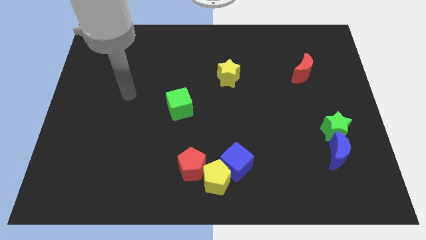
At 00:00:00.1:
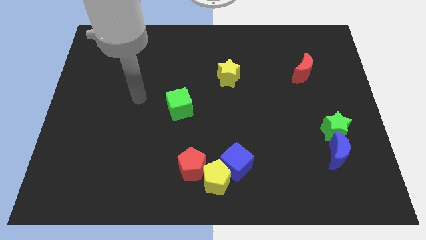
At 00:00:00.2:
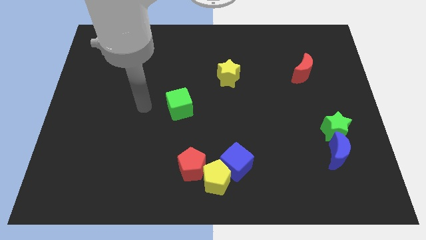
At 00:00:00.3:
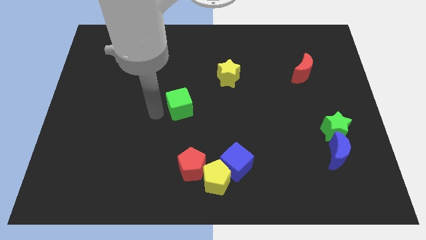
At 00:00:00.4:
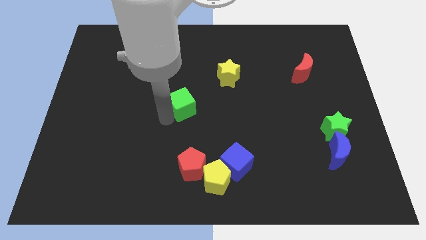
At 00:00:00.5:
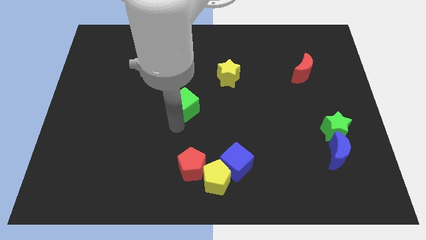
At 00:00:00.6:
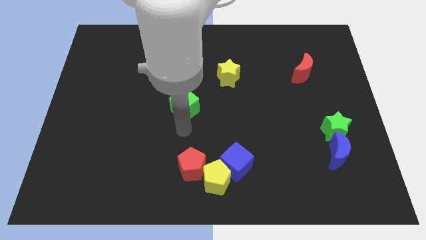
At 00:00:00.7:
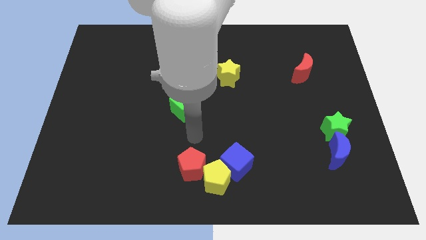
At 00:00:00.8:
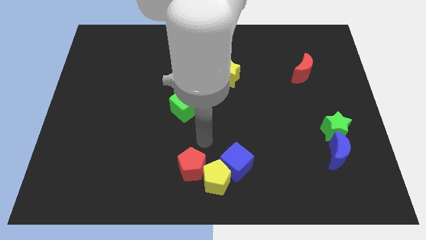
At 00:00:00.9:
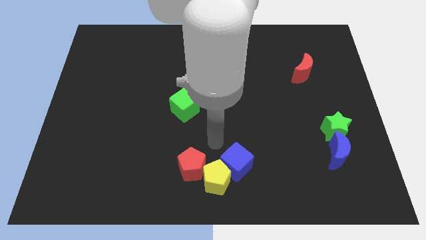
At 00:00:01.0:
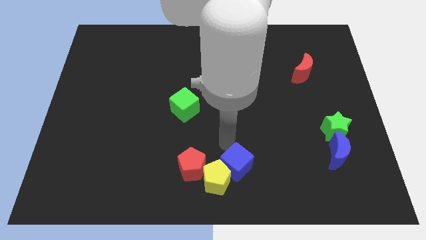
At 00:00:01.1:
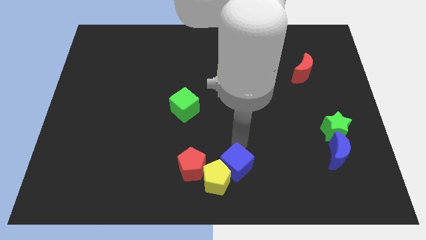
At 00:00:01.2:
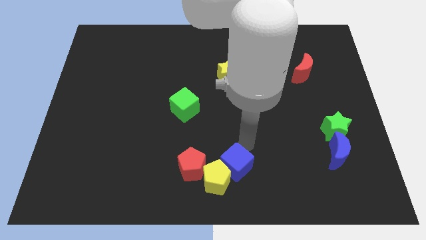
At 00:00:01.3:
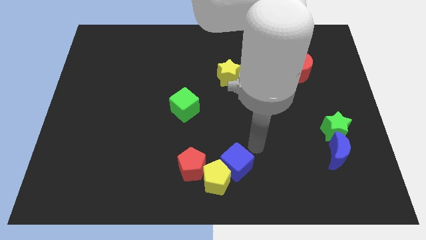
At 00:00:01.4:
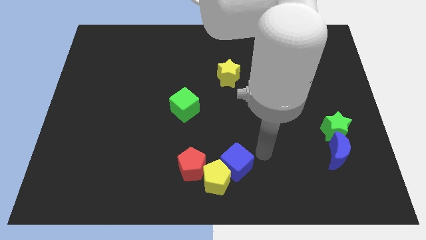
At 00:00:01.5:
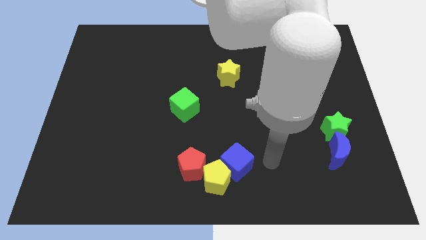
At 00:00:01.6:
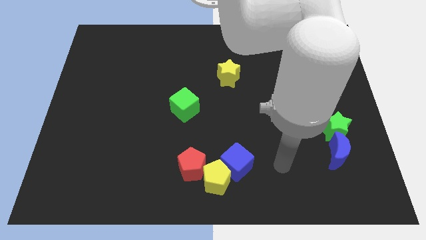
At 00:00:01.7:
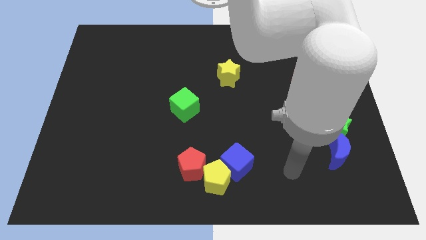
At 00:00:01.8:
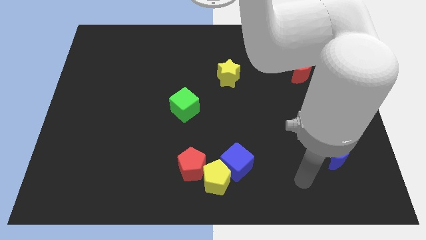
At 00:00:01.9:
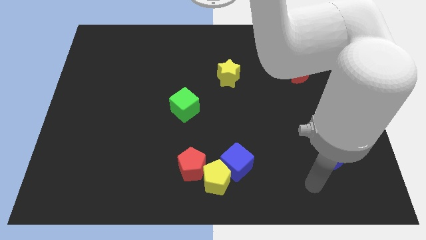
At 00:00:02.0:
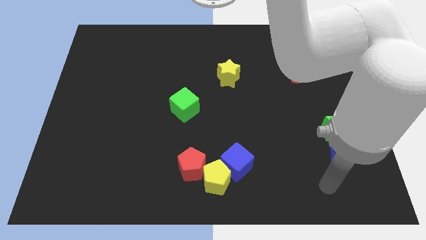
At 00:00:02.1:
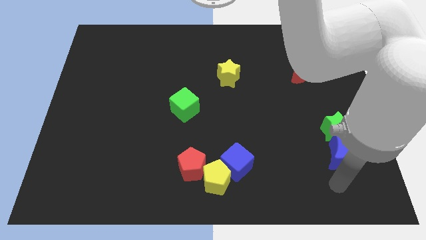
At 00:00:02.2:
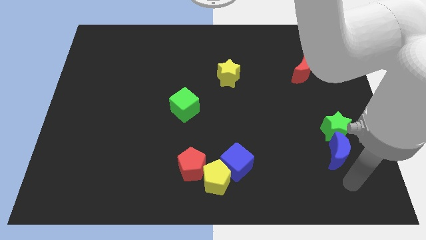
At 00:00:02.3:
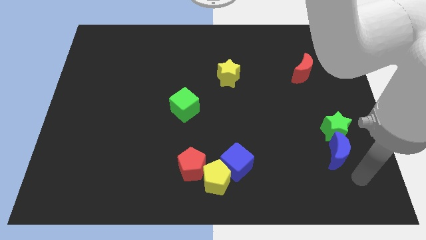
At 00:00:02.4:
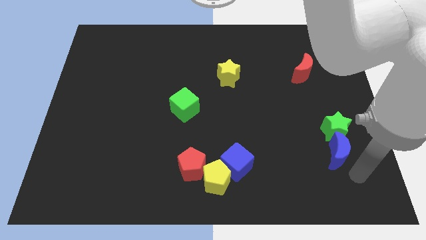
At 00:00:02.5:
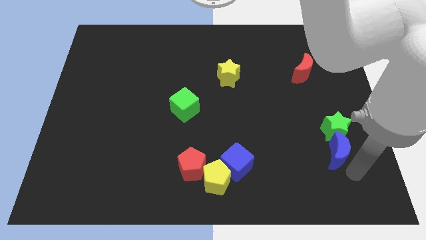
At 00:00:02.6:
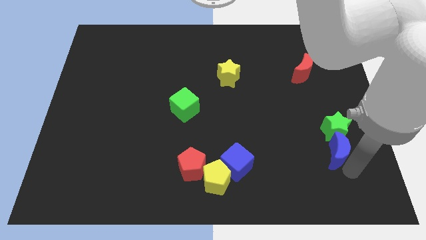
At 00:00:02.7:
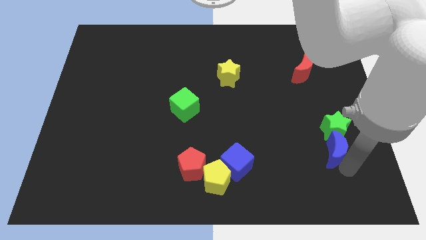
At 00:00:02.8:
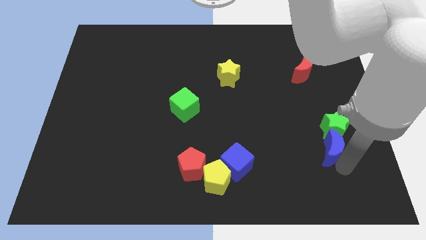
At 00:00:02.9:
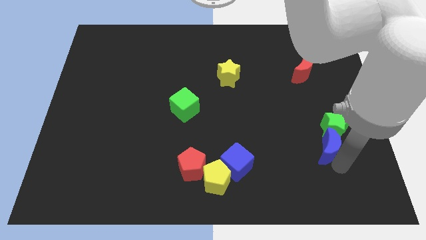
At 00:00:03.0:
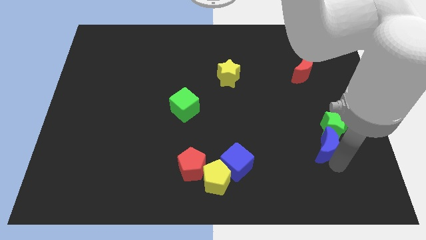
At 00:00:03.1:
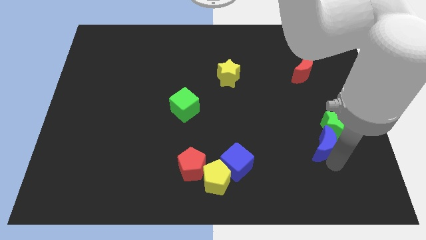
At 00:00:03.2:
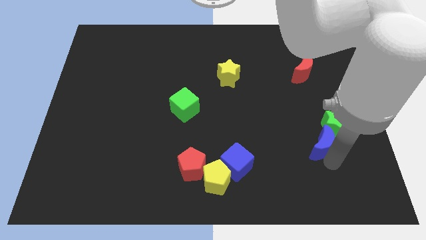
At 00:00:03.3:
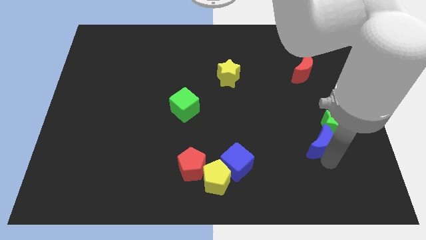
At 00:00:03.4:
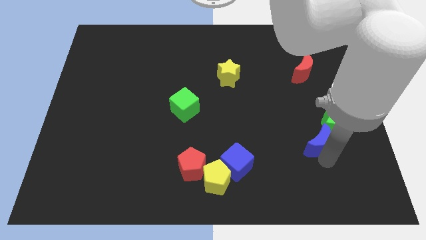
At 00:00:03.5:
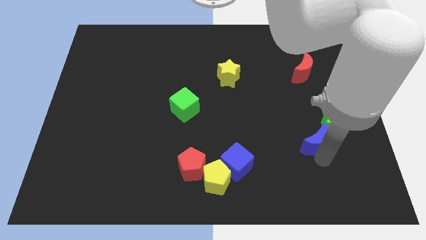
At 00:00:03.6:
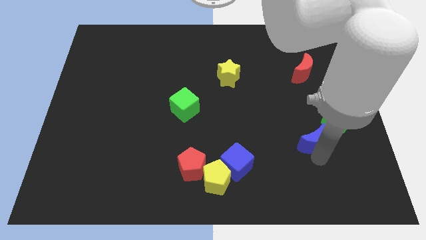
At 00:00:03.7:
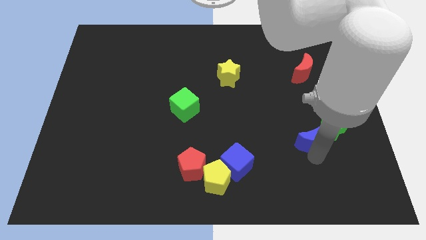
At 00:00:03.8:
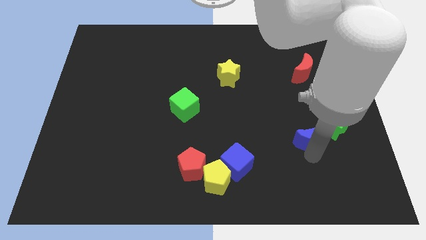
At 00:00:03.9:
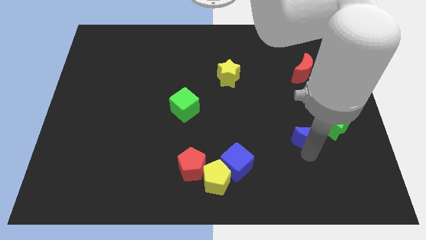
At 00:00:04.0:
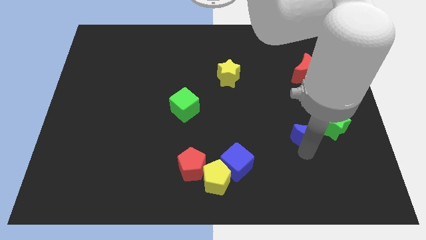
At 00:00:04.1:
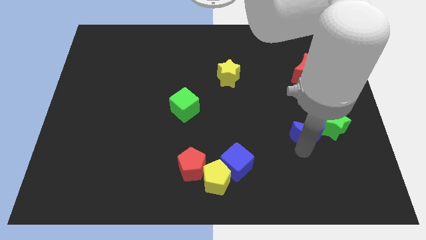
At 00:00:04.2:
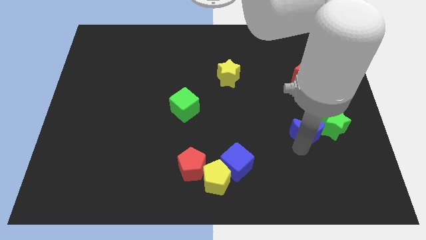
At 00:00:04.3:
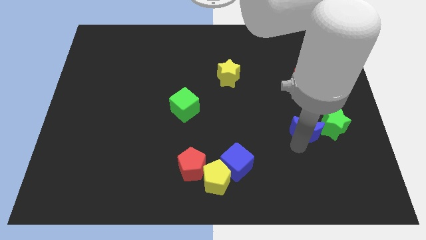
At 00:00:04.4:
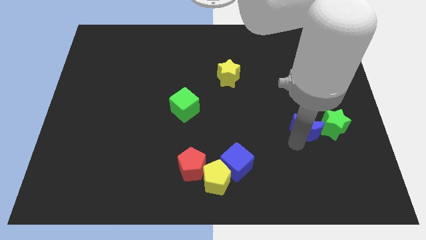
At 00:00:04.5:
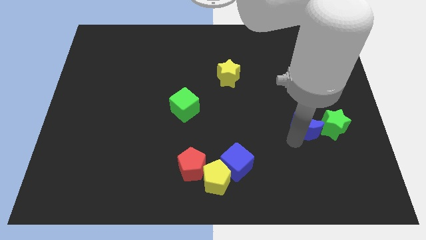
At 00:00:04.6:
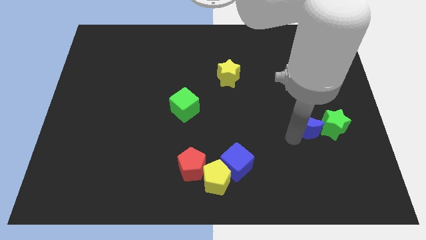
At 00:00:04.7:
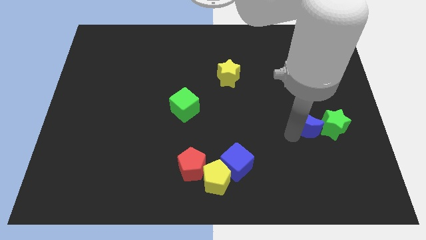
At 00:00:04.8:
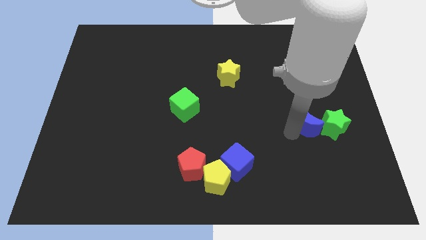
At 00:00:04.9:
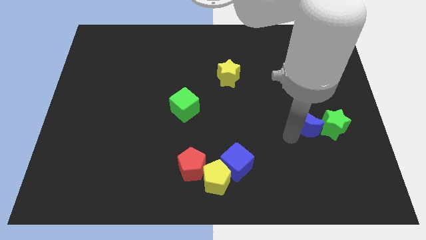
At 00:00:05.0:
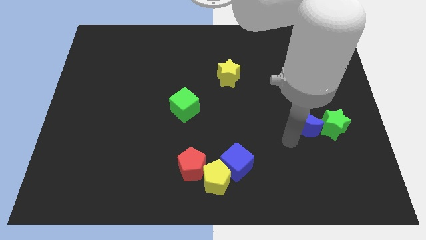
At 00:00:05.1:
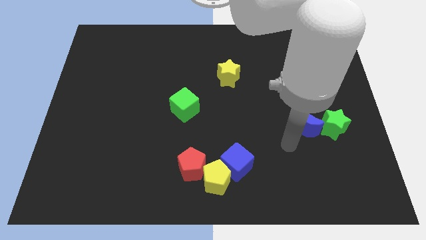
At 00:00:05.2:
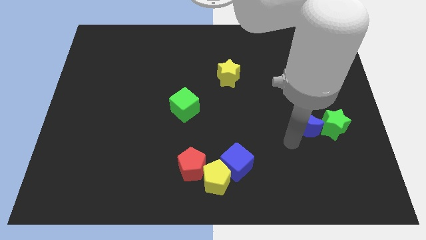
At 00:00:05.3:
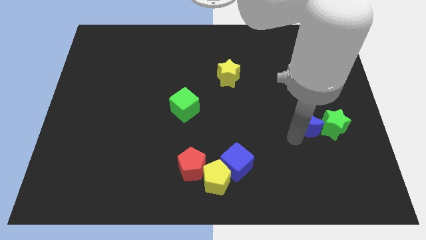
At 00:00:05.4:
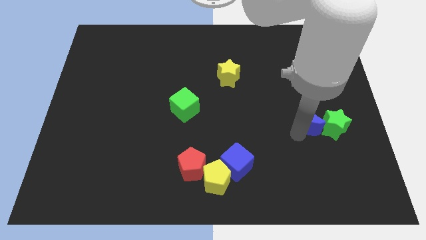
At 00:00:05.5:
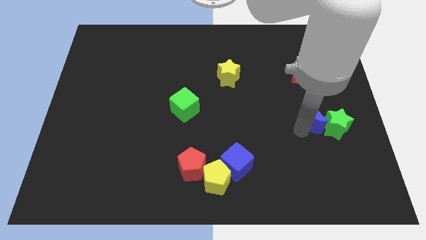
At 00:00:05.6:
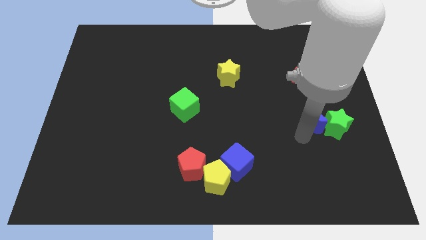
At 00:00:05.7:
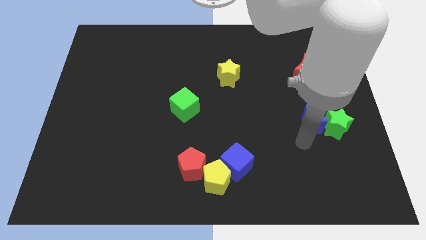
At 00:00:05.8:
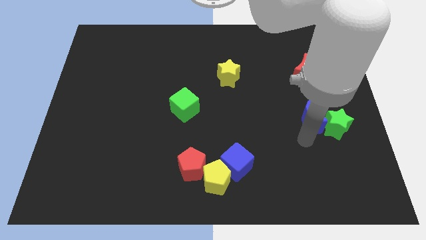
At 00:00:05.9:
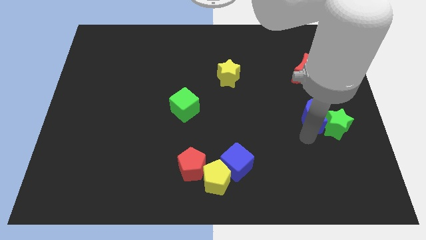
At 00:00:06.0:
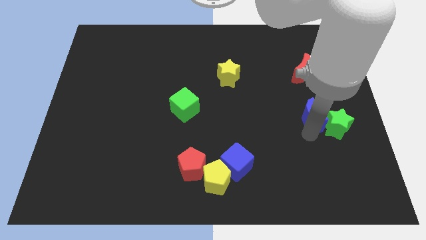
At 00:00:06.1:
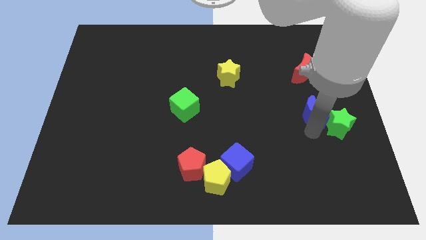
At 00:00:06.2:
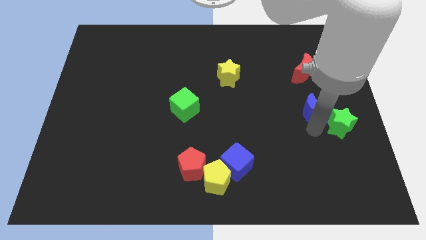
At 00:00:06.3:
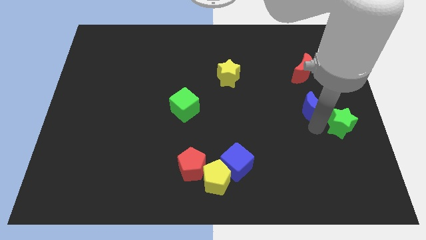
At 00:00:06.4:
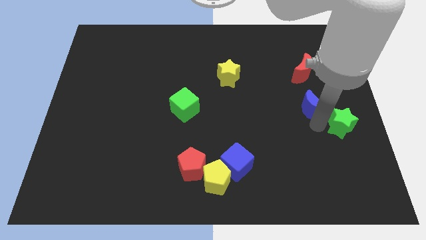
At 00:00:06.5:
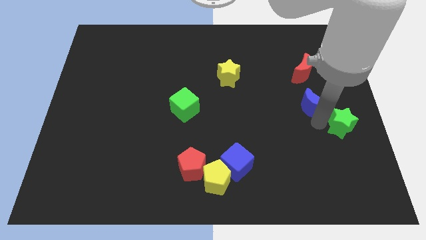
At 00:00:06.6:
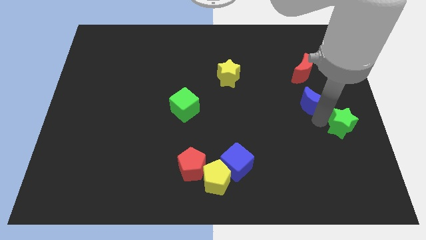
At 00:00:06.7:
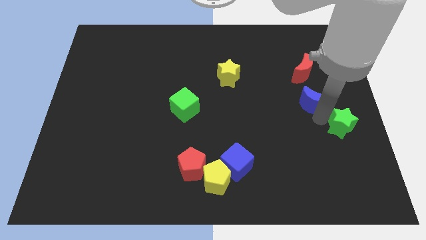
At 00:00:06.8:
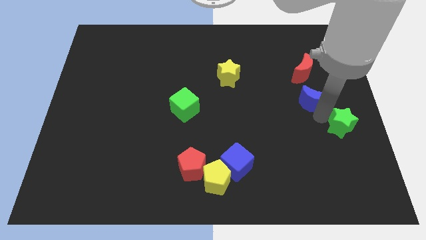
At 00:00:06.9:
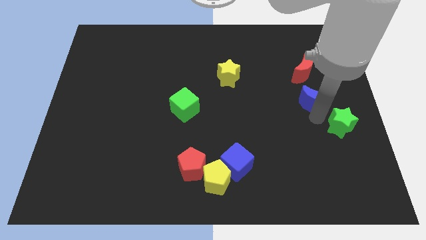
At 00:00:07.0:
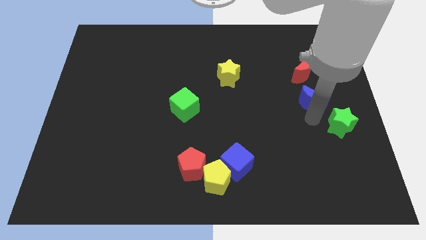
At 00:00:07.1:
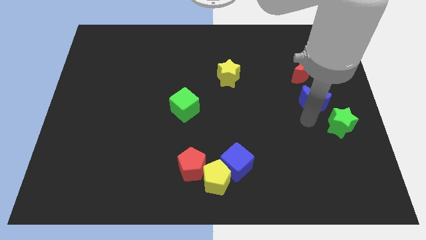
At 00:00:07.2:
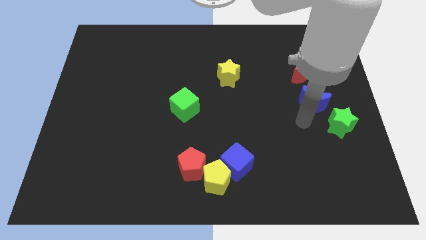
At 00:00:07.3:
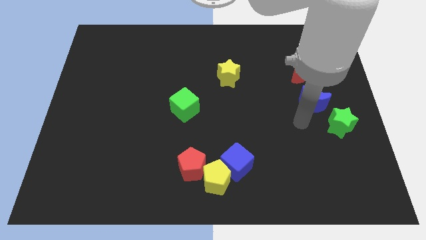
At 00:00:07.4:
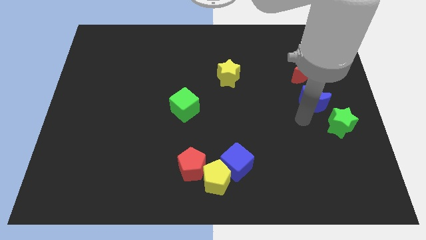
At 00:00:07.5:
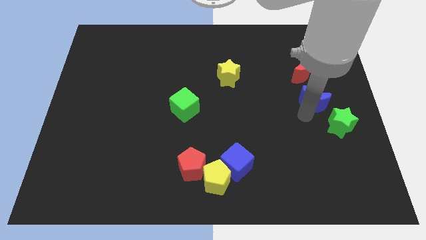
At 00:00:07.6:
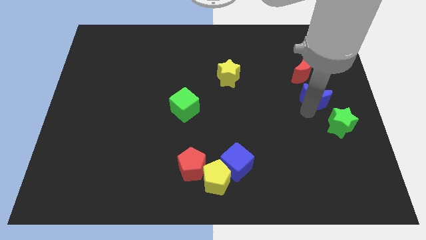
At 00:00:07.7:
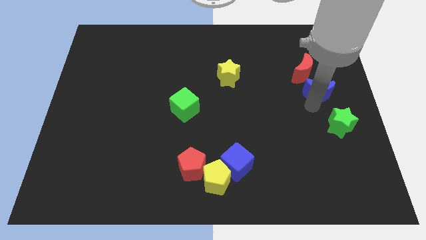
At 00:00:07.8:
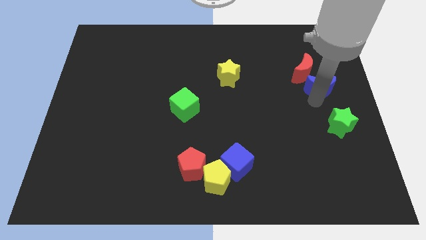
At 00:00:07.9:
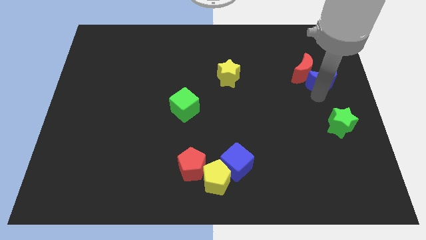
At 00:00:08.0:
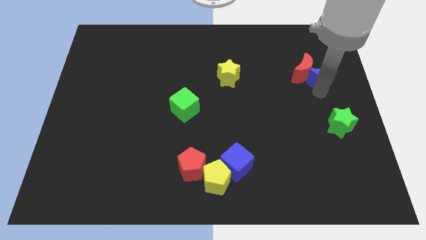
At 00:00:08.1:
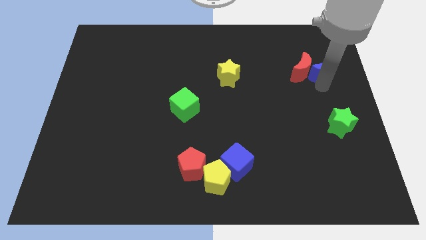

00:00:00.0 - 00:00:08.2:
slide the blue moon diagonally up and to the right of the red moon
